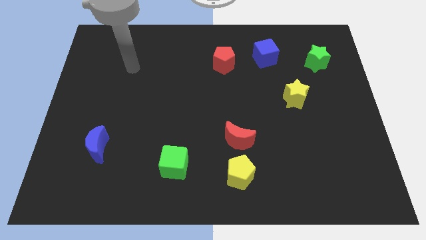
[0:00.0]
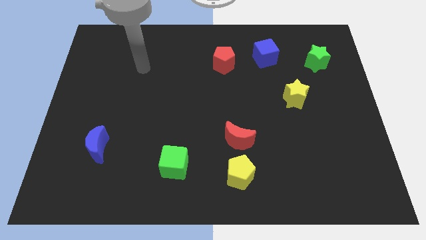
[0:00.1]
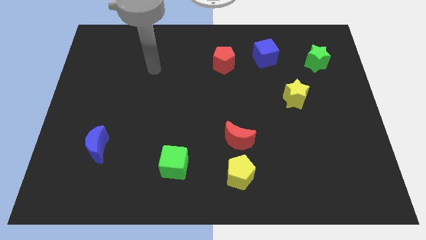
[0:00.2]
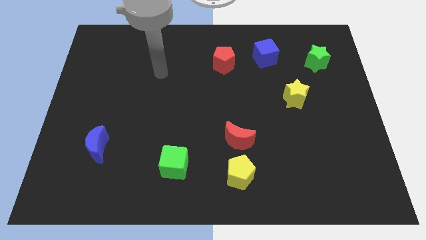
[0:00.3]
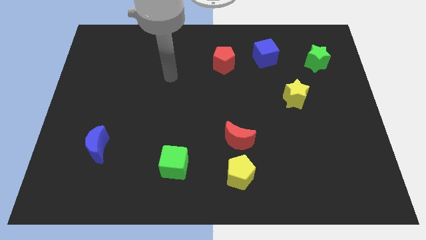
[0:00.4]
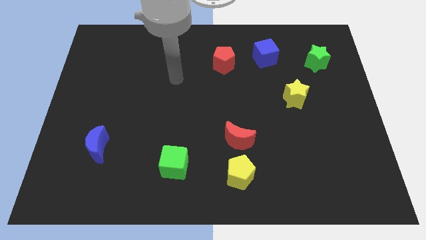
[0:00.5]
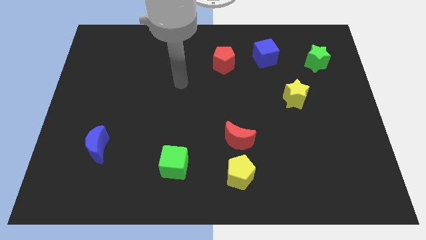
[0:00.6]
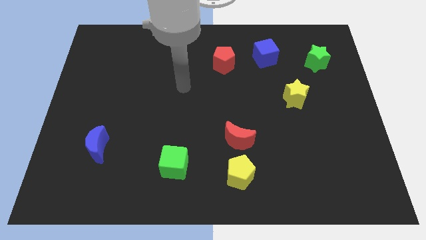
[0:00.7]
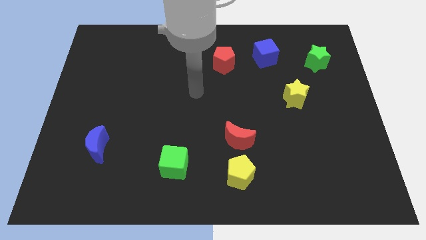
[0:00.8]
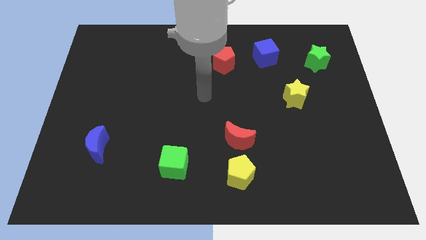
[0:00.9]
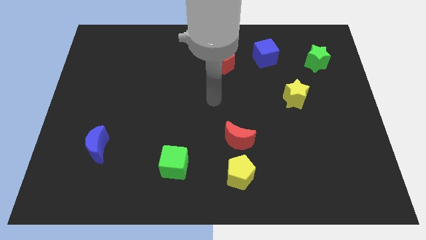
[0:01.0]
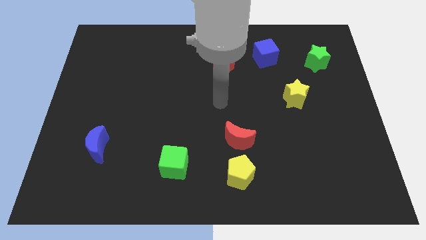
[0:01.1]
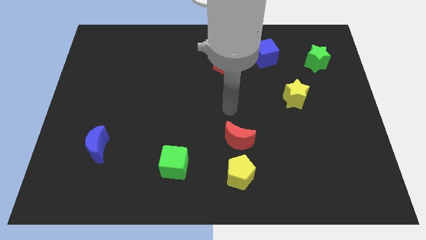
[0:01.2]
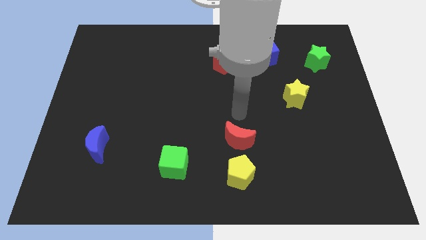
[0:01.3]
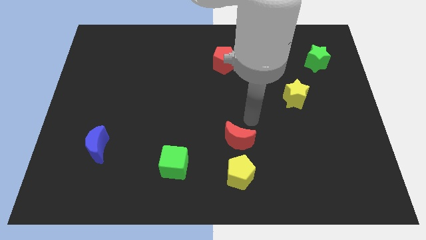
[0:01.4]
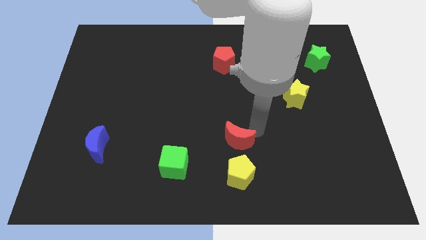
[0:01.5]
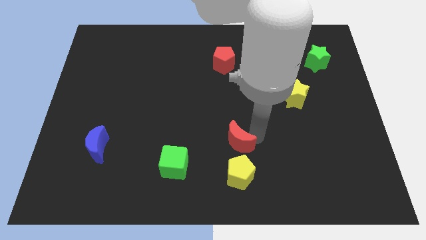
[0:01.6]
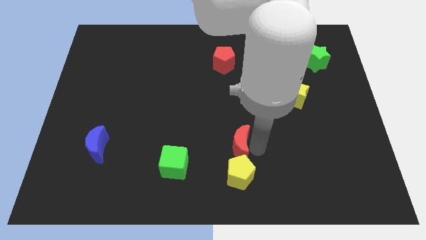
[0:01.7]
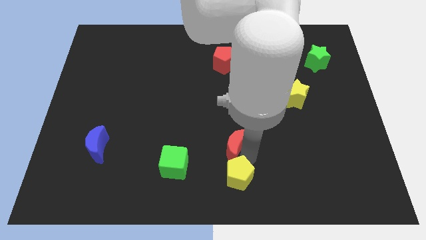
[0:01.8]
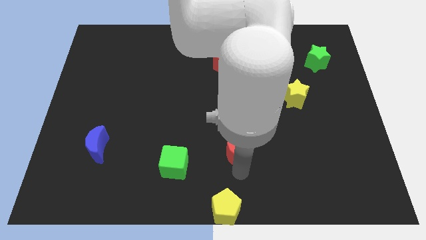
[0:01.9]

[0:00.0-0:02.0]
move the red moon away from the yellow pentagon

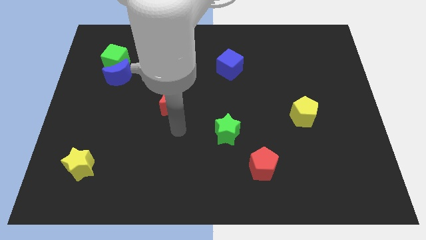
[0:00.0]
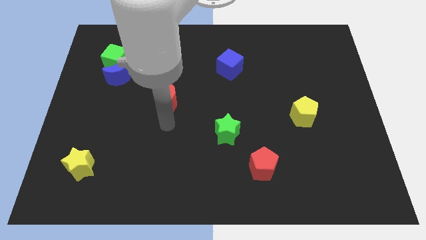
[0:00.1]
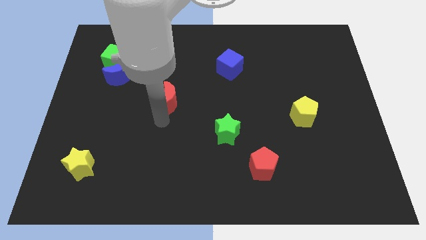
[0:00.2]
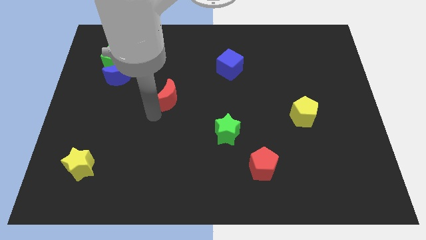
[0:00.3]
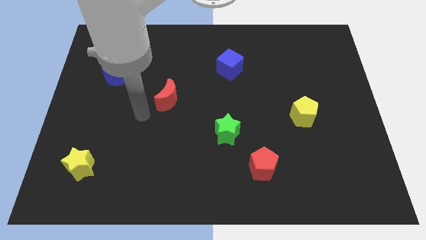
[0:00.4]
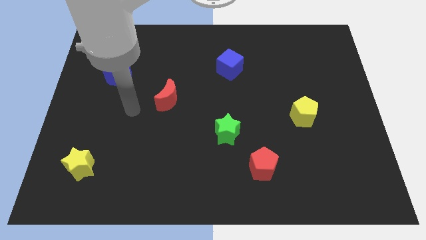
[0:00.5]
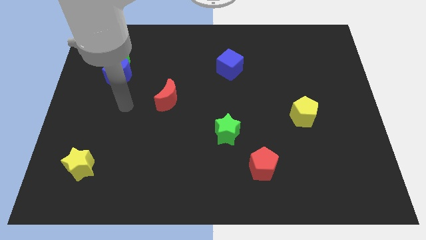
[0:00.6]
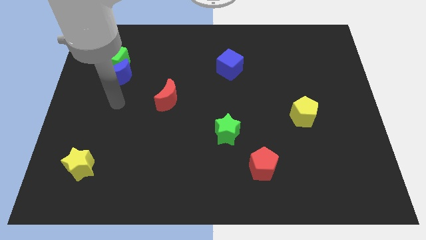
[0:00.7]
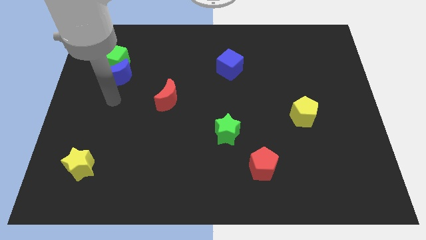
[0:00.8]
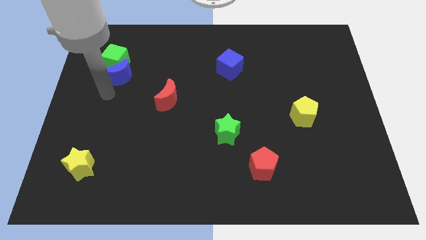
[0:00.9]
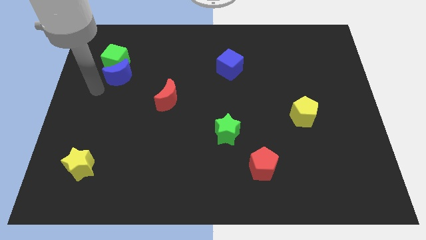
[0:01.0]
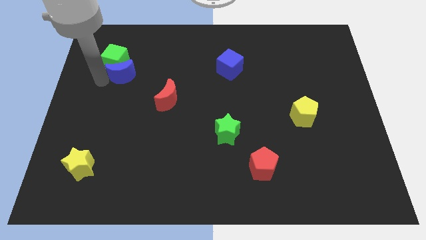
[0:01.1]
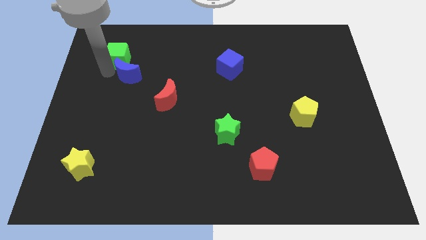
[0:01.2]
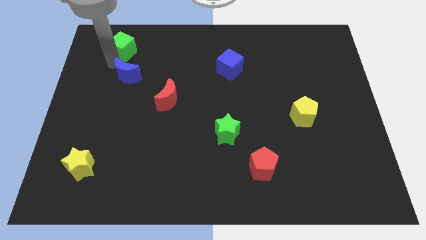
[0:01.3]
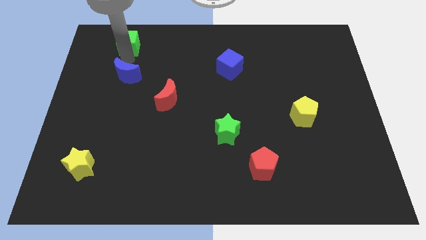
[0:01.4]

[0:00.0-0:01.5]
move the blue moon away from the green cube

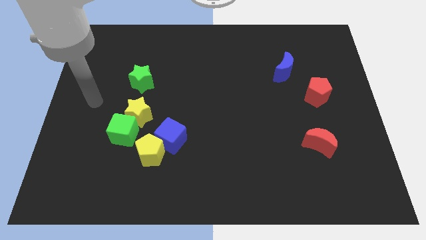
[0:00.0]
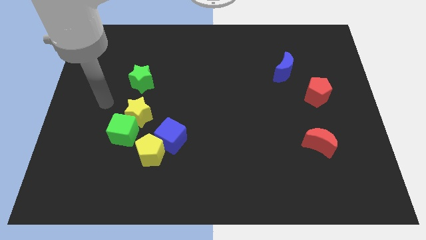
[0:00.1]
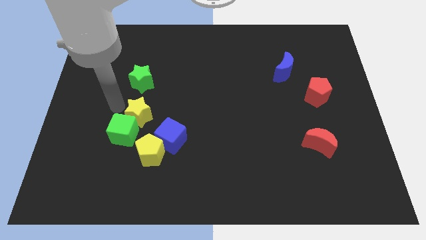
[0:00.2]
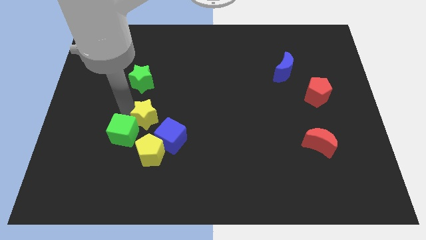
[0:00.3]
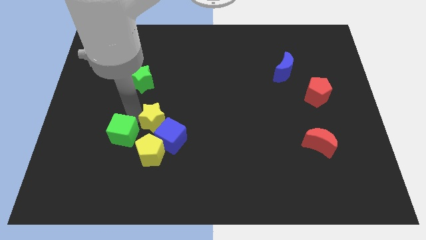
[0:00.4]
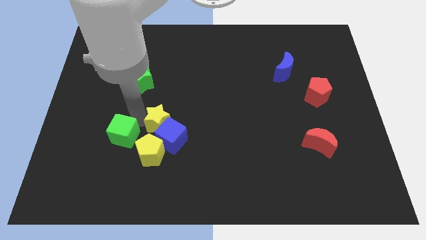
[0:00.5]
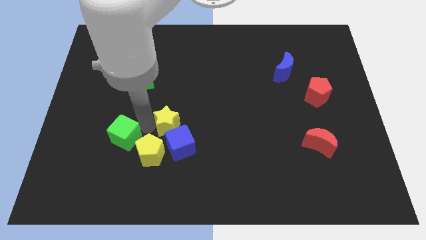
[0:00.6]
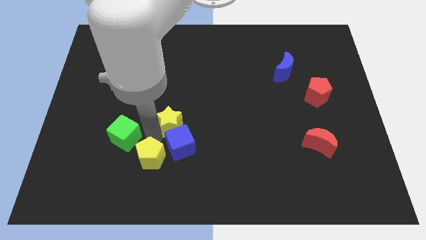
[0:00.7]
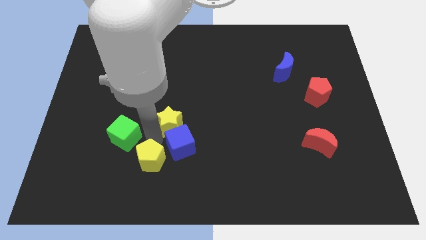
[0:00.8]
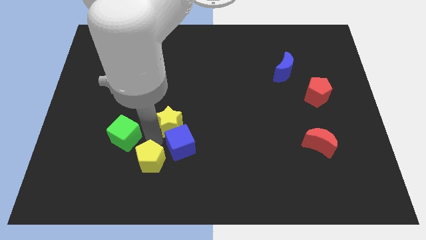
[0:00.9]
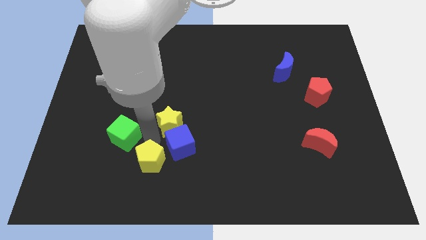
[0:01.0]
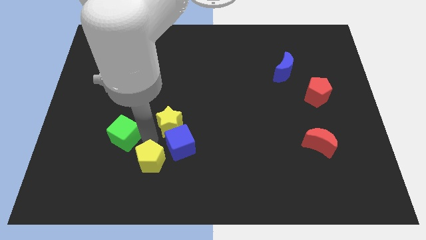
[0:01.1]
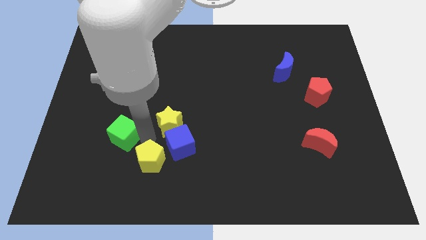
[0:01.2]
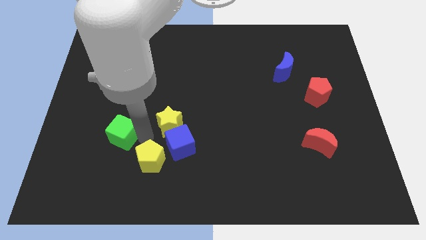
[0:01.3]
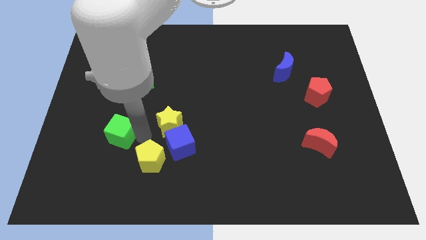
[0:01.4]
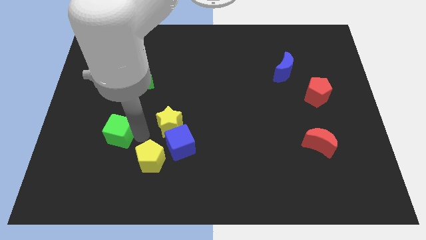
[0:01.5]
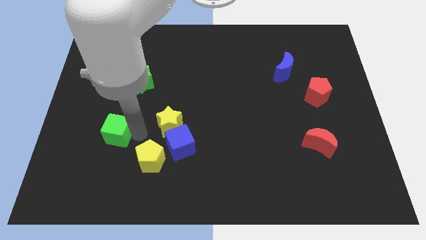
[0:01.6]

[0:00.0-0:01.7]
separate the green cube from the yellow star and yellow pentagon

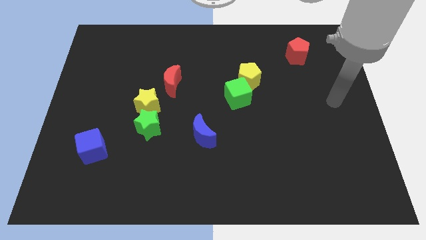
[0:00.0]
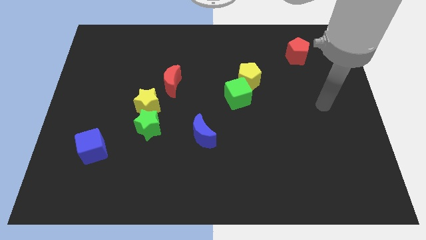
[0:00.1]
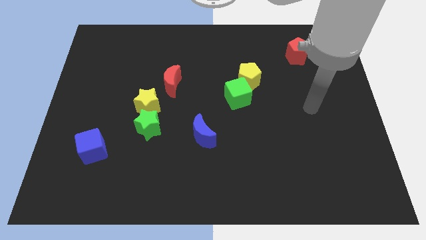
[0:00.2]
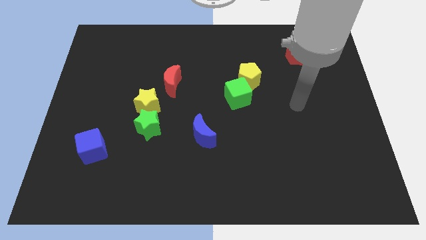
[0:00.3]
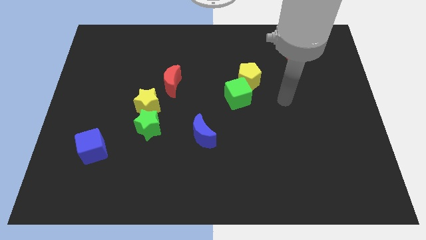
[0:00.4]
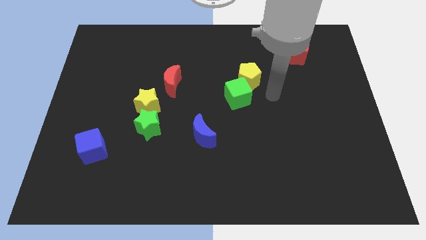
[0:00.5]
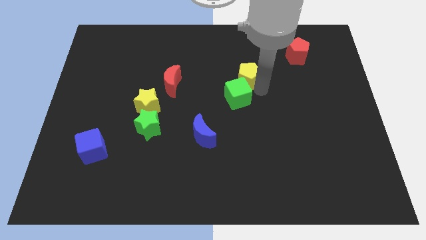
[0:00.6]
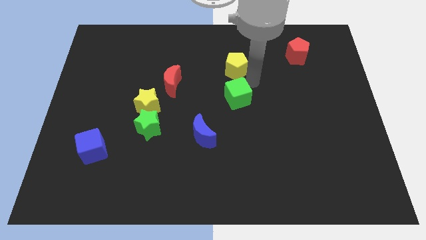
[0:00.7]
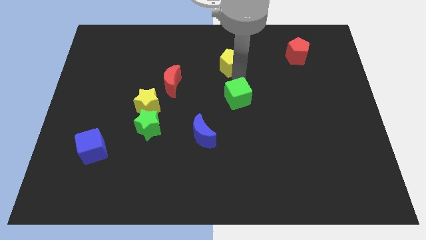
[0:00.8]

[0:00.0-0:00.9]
move the green cube away from the yellow pentagon

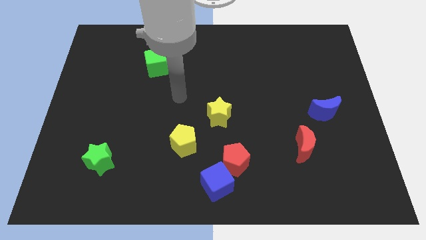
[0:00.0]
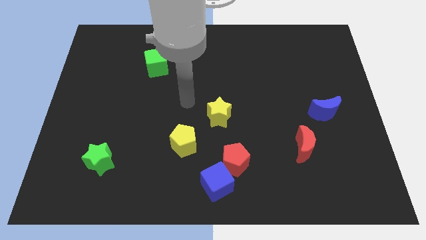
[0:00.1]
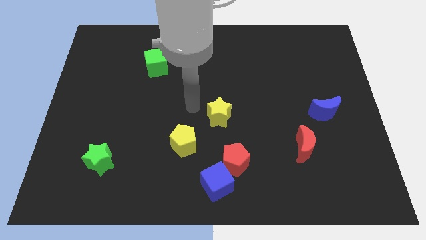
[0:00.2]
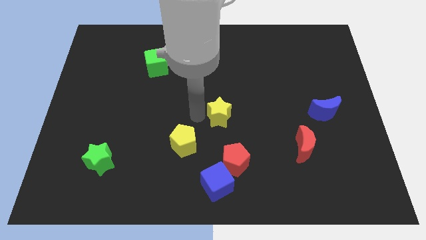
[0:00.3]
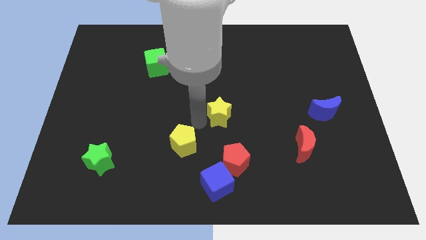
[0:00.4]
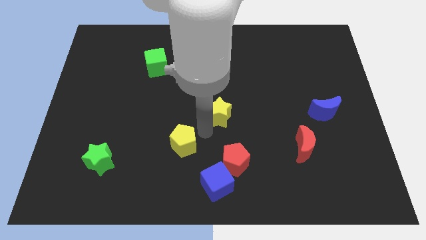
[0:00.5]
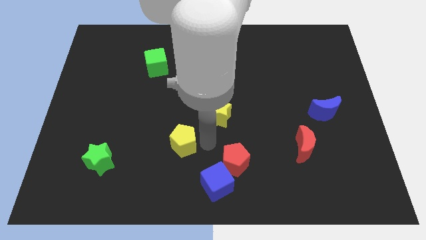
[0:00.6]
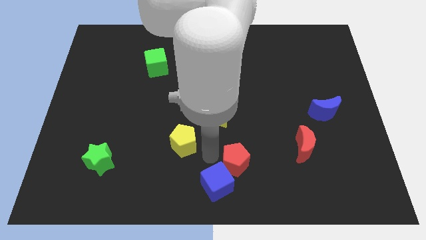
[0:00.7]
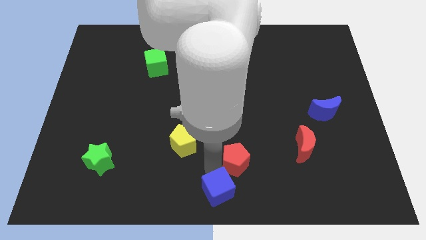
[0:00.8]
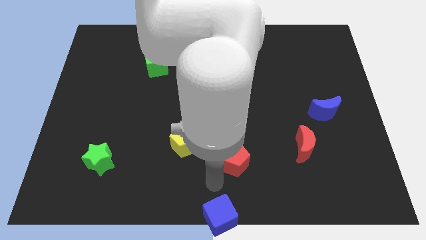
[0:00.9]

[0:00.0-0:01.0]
move the red pentagon away from the blue cube

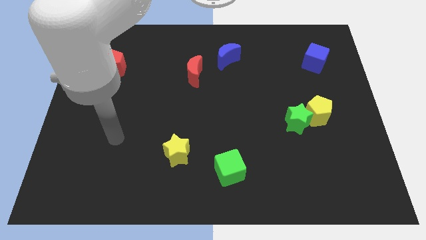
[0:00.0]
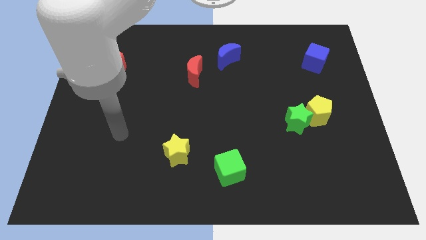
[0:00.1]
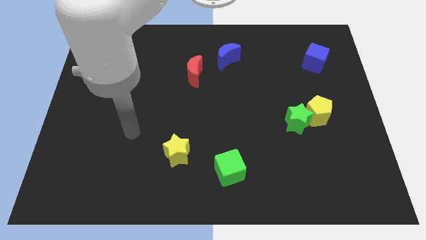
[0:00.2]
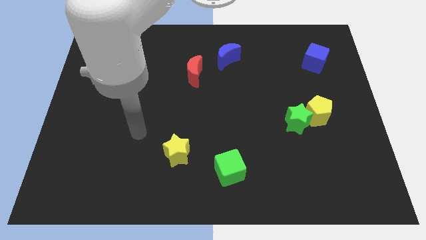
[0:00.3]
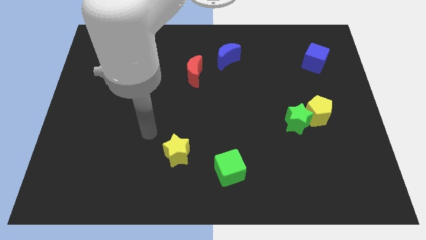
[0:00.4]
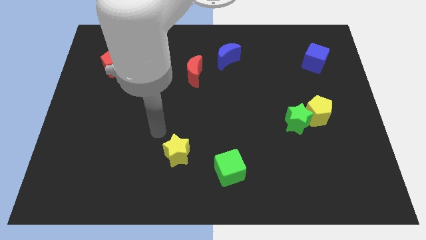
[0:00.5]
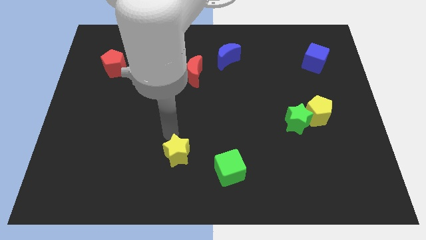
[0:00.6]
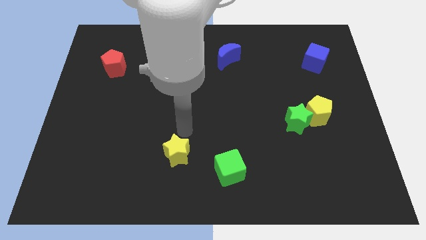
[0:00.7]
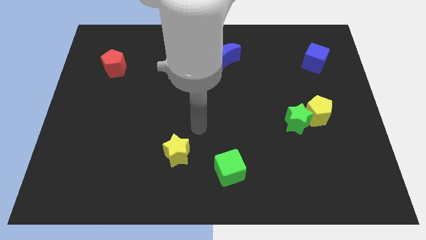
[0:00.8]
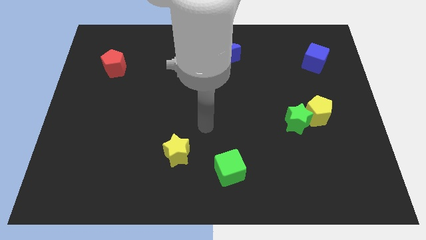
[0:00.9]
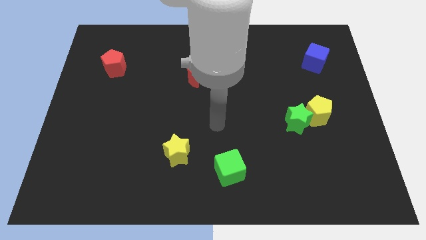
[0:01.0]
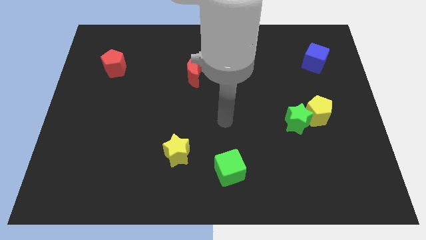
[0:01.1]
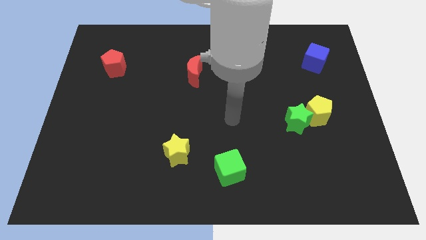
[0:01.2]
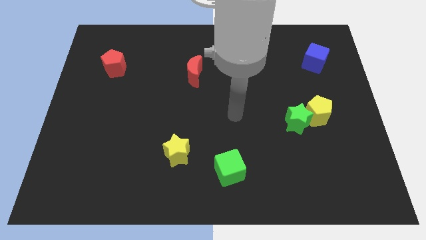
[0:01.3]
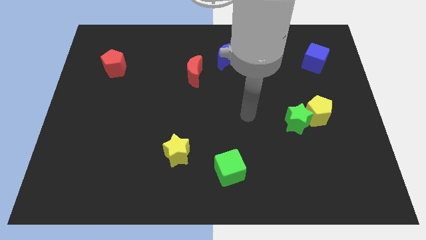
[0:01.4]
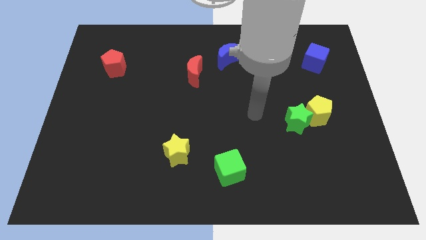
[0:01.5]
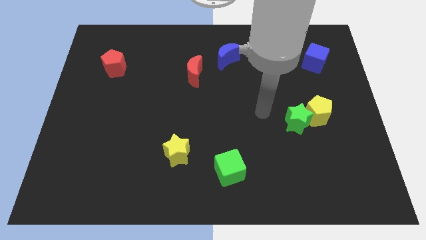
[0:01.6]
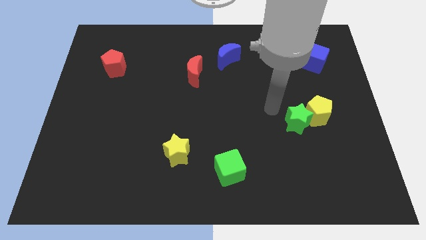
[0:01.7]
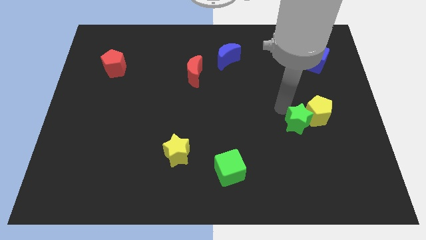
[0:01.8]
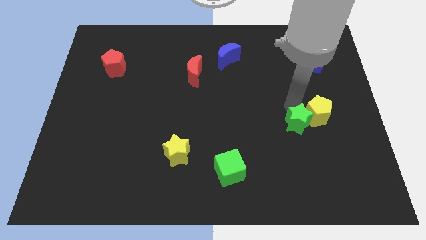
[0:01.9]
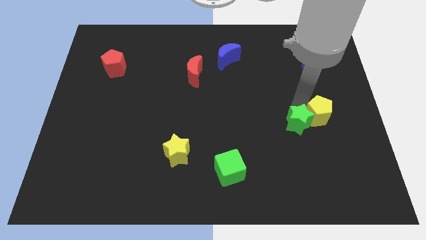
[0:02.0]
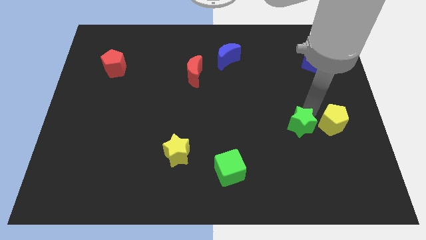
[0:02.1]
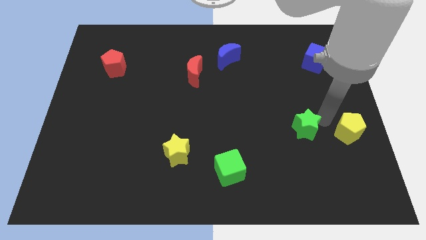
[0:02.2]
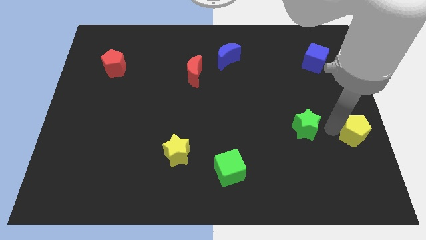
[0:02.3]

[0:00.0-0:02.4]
move the green star away from the yellow pentagon

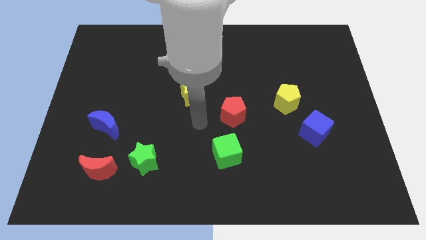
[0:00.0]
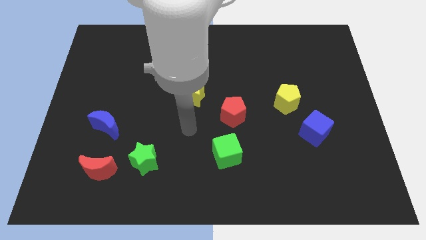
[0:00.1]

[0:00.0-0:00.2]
pull the red moon apart from the green star
